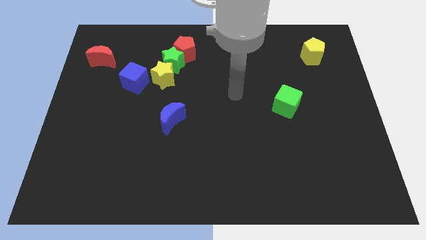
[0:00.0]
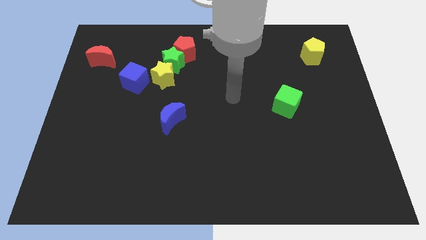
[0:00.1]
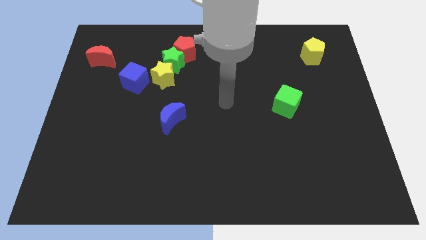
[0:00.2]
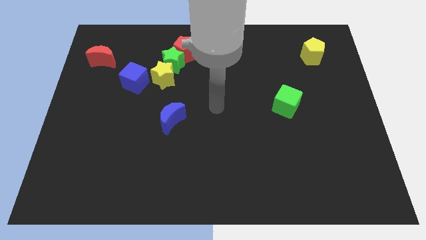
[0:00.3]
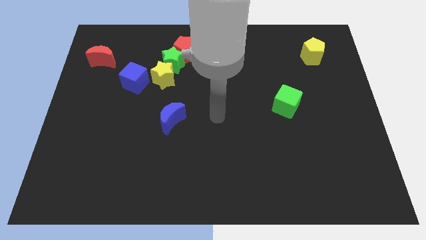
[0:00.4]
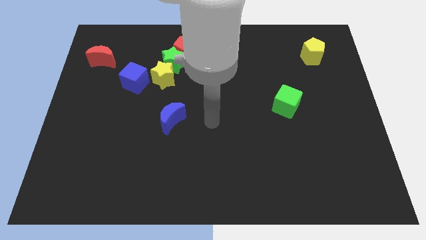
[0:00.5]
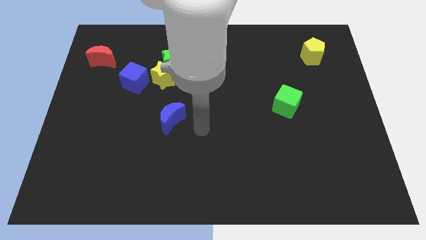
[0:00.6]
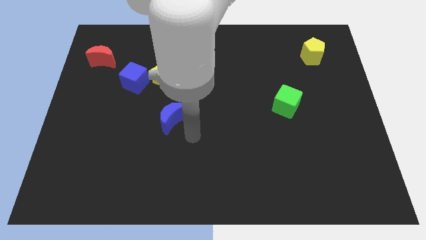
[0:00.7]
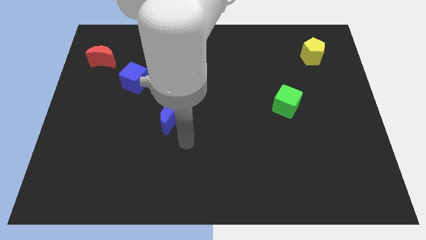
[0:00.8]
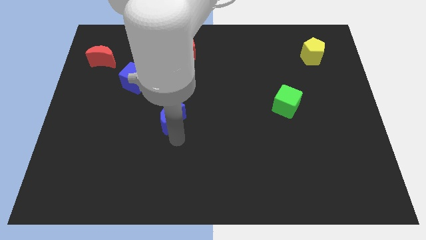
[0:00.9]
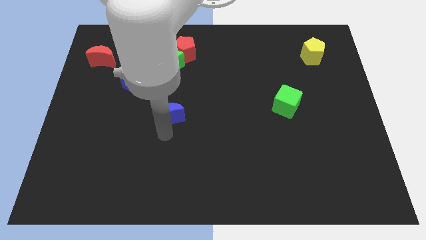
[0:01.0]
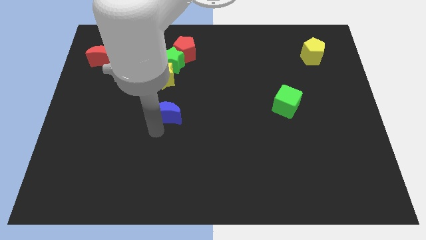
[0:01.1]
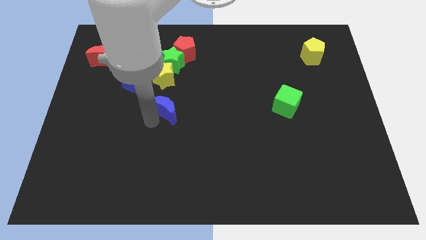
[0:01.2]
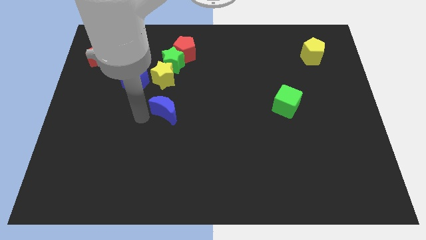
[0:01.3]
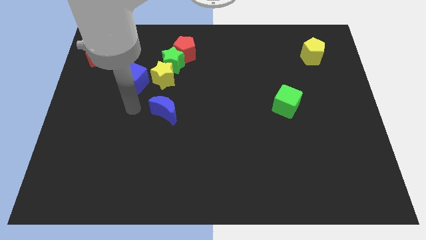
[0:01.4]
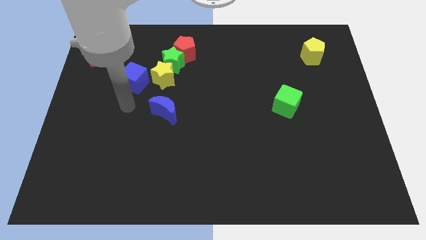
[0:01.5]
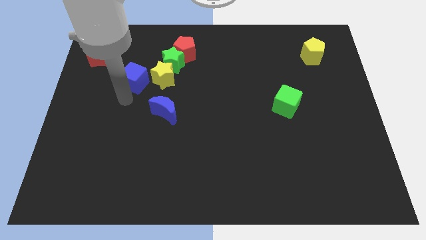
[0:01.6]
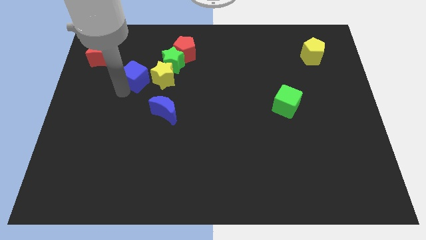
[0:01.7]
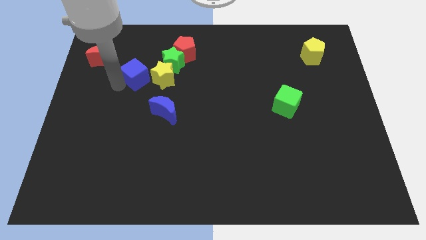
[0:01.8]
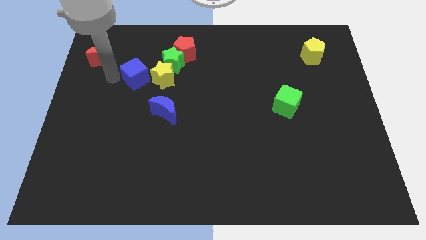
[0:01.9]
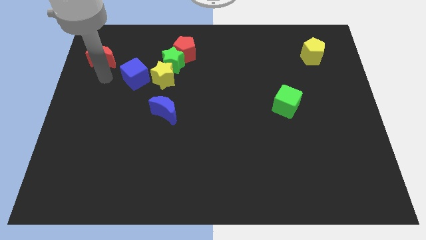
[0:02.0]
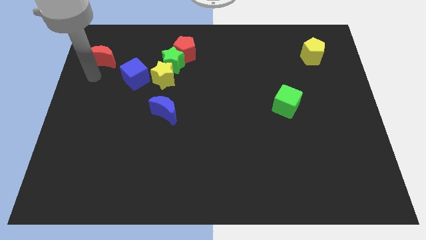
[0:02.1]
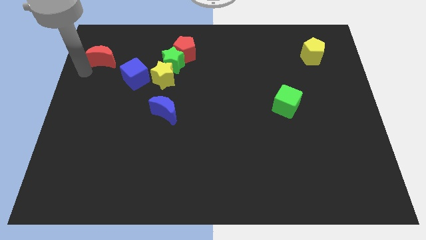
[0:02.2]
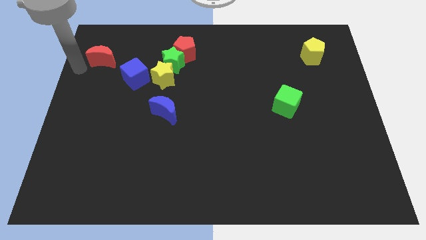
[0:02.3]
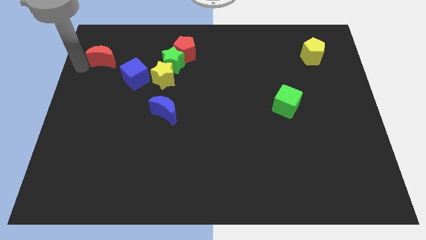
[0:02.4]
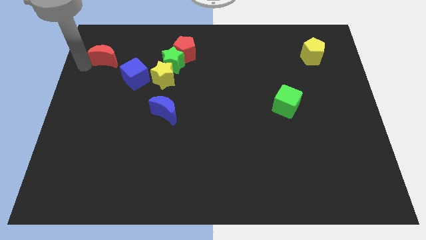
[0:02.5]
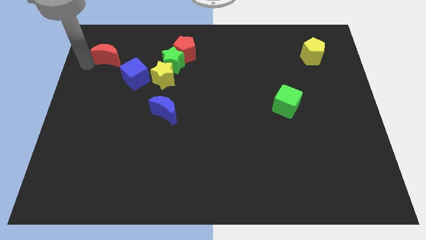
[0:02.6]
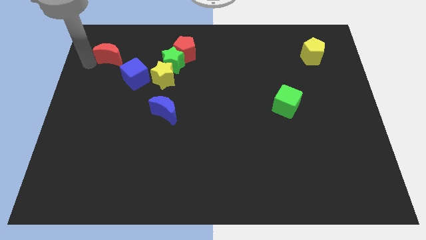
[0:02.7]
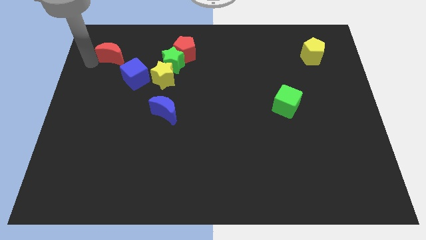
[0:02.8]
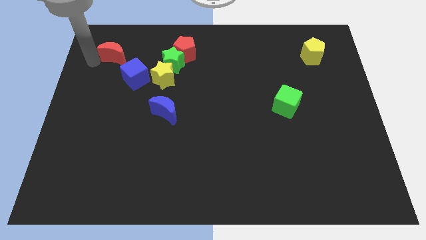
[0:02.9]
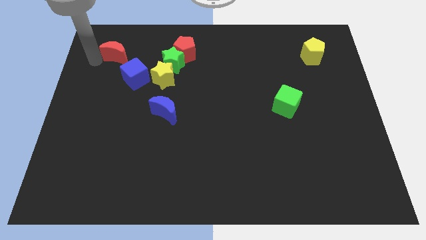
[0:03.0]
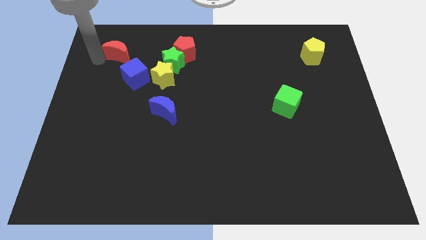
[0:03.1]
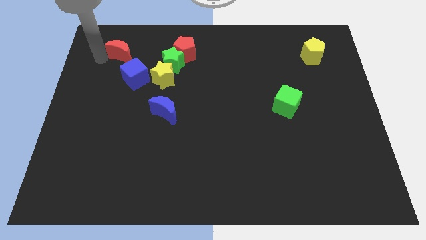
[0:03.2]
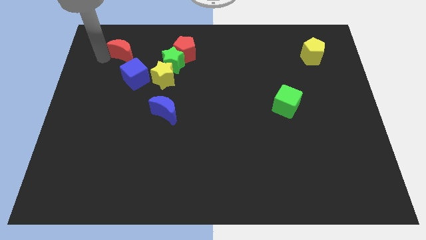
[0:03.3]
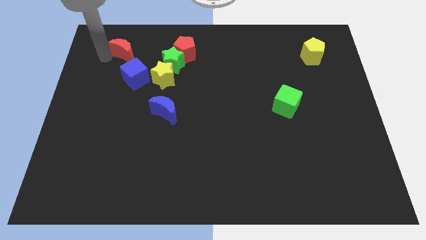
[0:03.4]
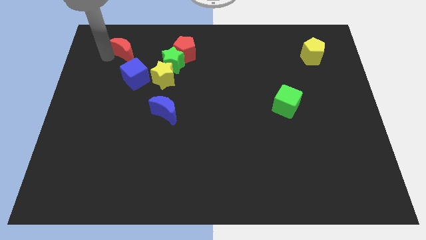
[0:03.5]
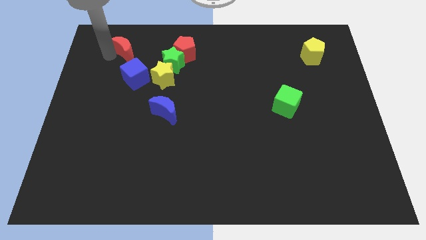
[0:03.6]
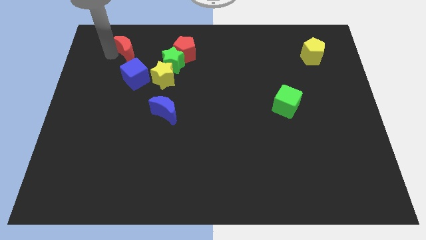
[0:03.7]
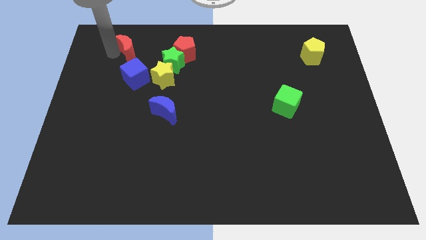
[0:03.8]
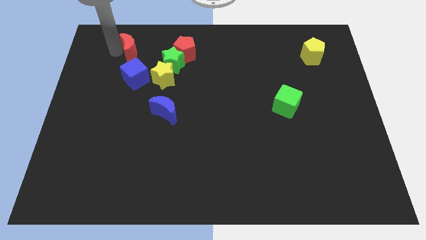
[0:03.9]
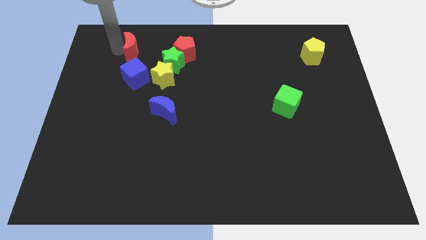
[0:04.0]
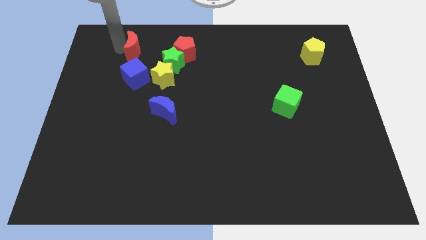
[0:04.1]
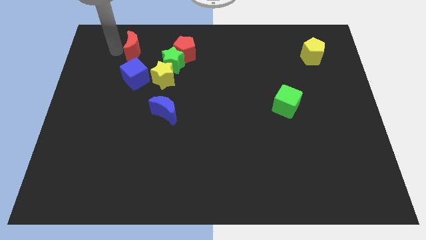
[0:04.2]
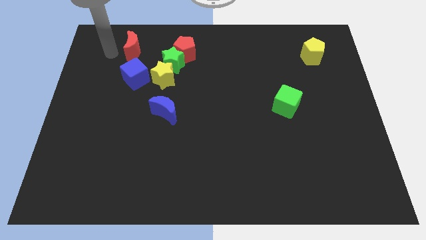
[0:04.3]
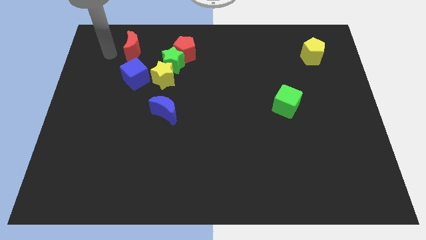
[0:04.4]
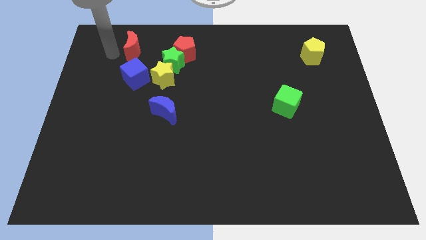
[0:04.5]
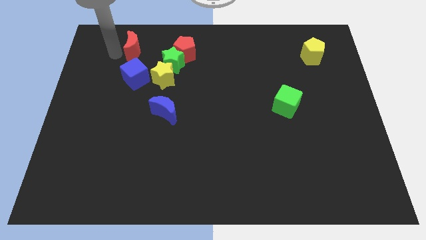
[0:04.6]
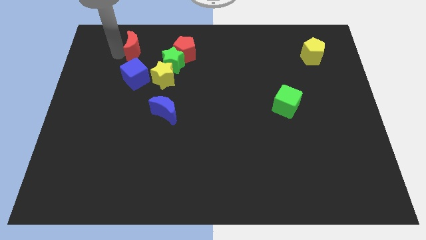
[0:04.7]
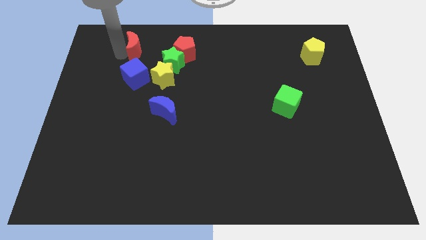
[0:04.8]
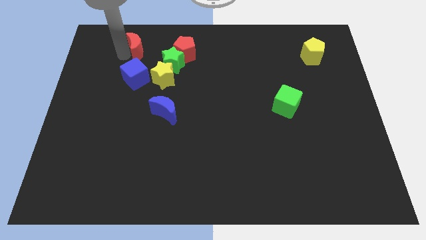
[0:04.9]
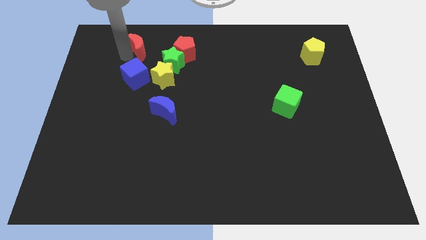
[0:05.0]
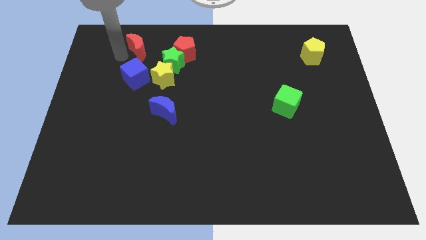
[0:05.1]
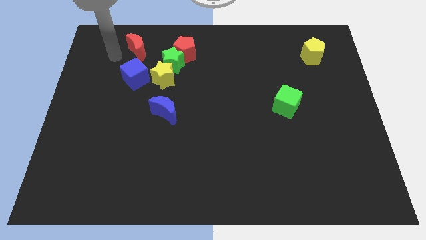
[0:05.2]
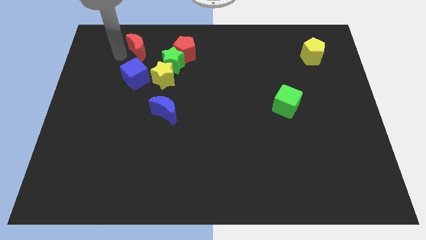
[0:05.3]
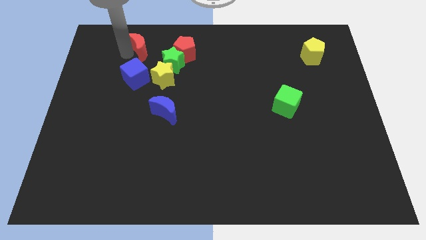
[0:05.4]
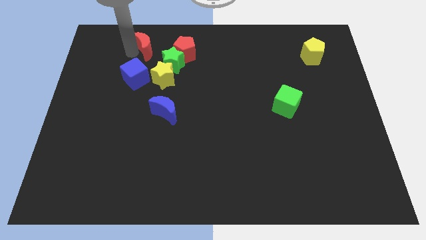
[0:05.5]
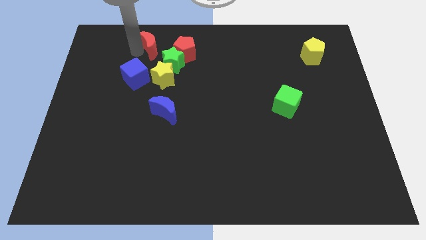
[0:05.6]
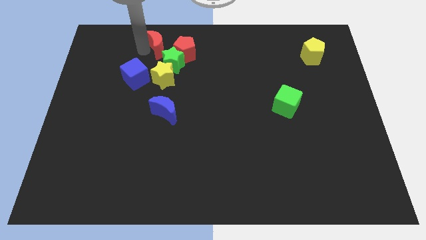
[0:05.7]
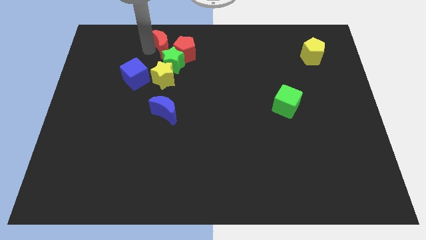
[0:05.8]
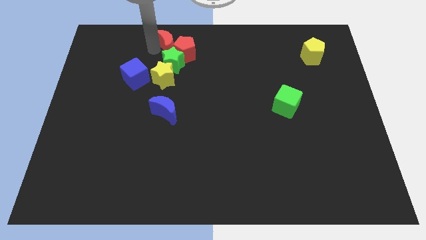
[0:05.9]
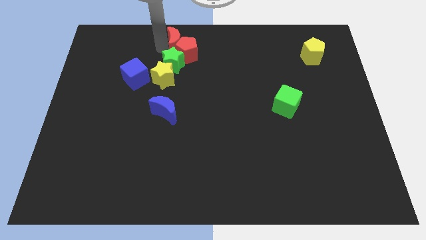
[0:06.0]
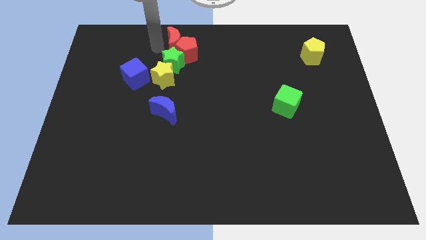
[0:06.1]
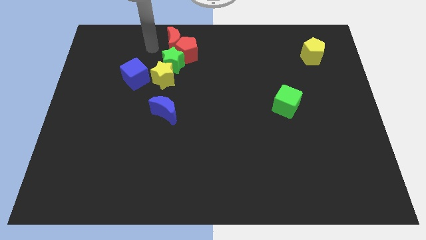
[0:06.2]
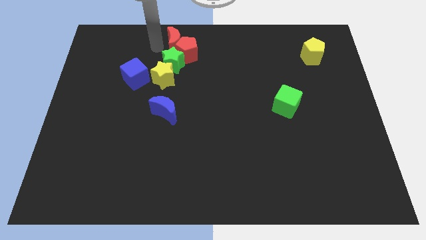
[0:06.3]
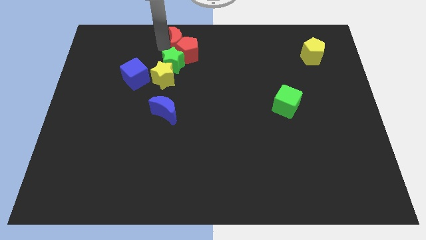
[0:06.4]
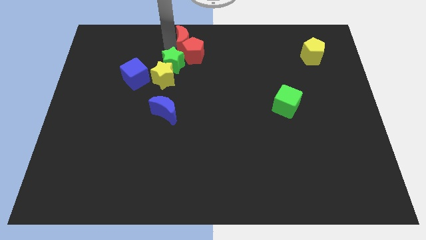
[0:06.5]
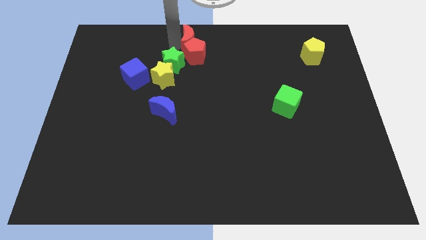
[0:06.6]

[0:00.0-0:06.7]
move the red moon to the right

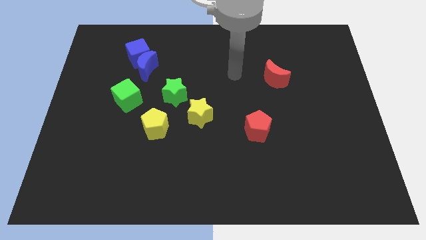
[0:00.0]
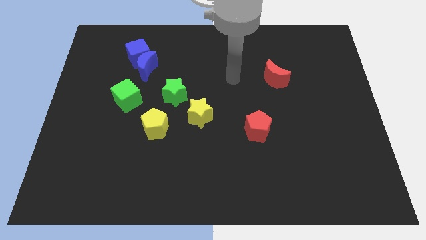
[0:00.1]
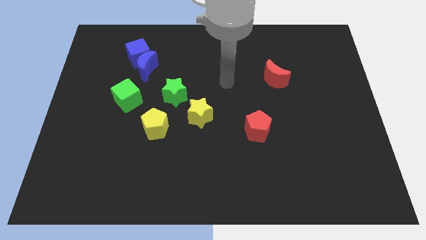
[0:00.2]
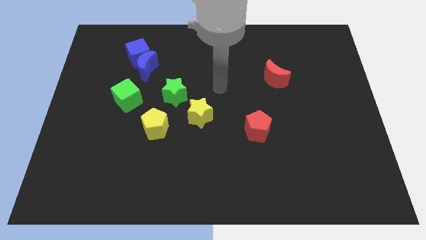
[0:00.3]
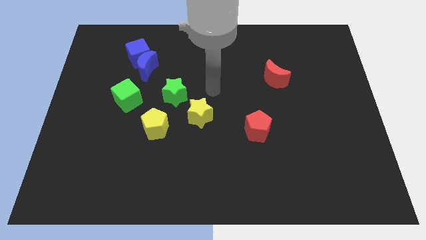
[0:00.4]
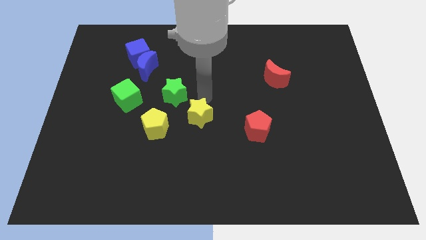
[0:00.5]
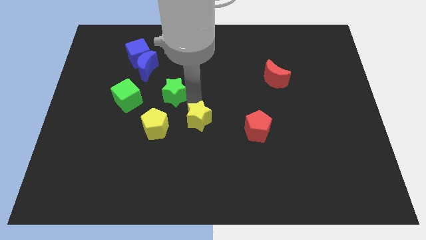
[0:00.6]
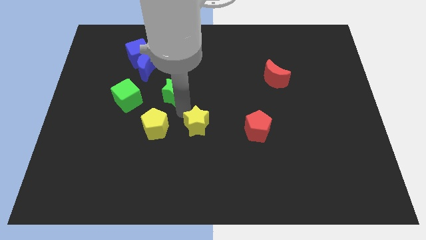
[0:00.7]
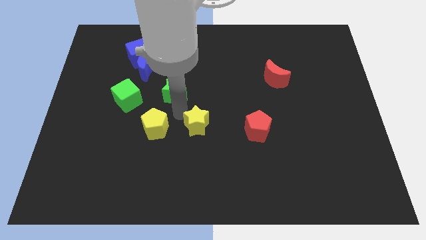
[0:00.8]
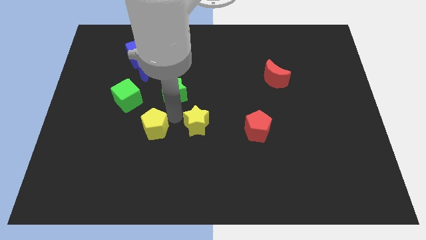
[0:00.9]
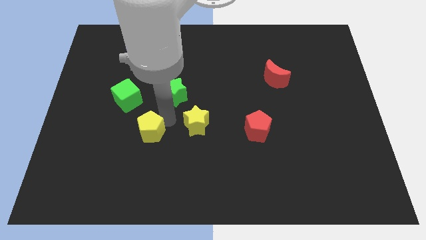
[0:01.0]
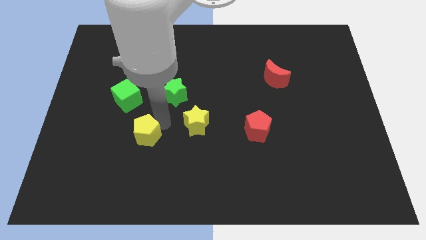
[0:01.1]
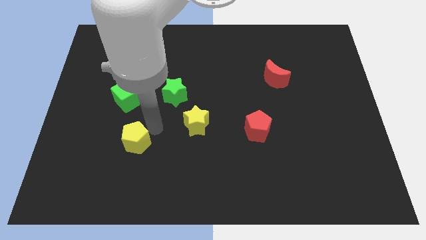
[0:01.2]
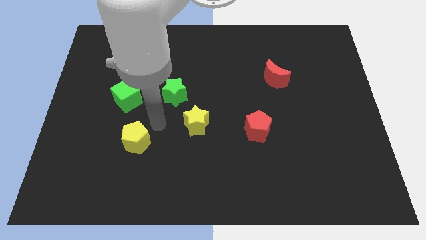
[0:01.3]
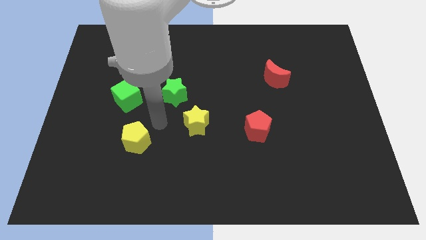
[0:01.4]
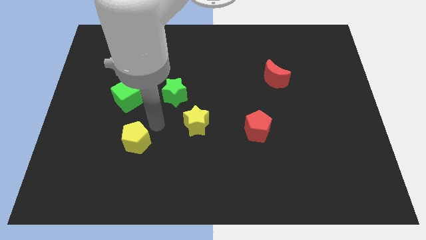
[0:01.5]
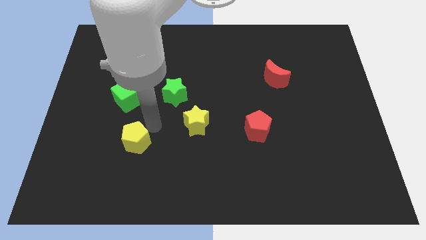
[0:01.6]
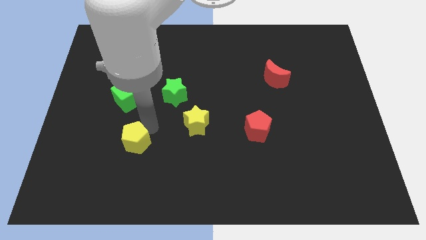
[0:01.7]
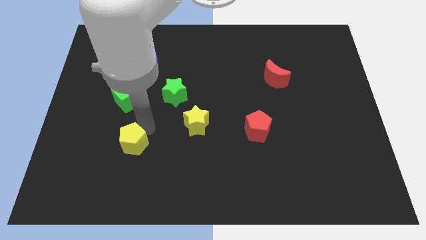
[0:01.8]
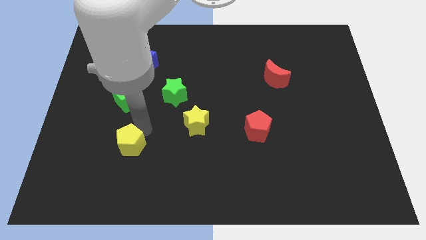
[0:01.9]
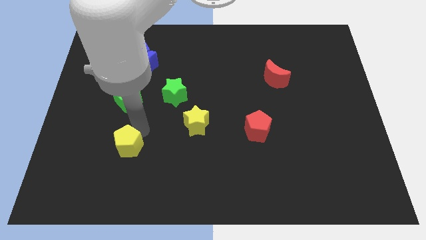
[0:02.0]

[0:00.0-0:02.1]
slightly move the yellow pentagon downwards and then to the left
